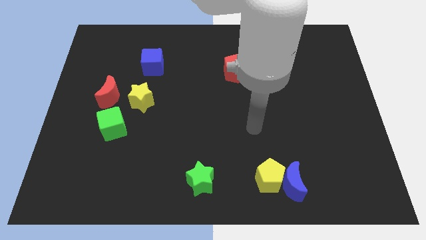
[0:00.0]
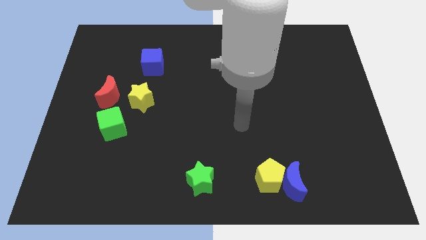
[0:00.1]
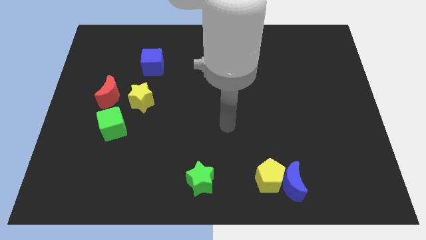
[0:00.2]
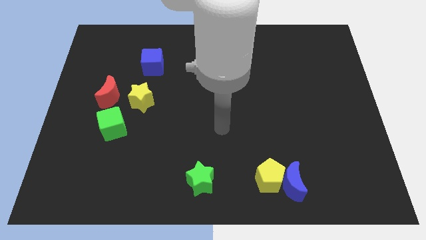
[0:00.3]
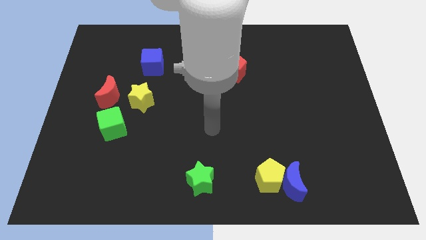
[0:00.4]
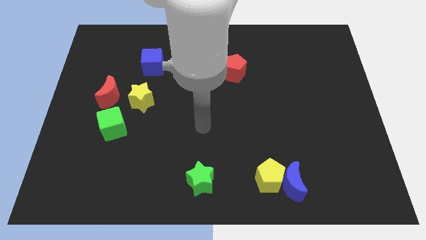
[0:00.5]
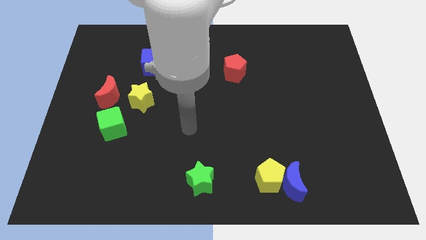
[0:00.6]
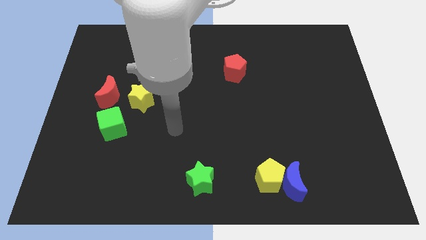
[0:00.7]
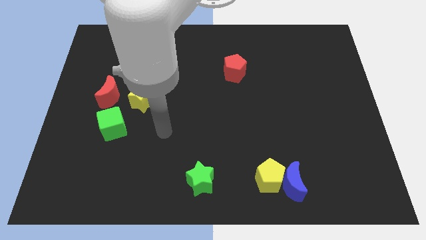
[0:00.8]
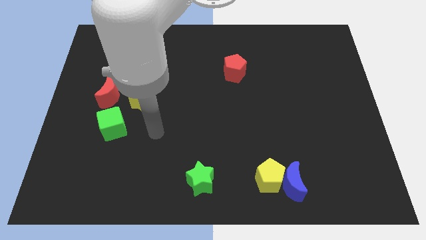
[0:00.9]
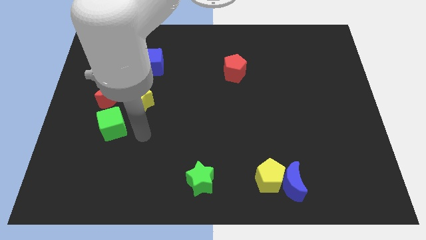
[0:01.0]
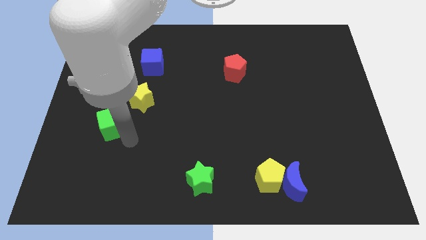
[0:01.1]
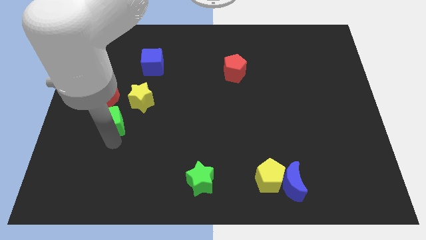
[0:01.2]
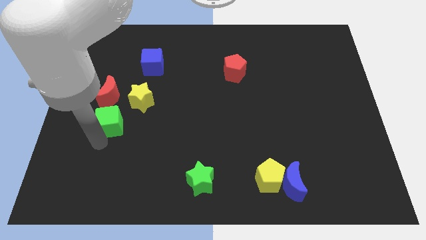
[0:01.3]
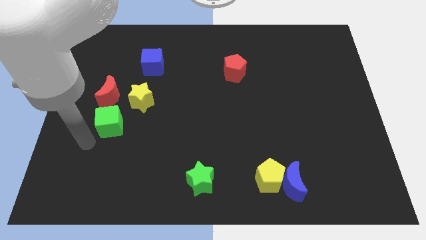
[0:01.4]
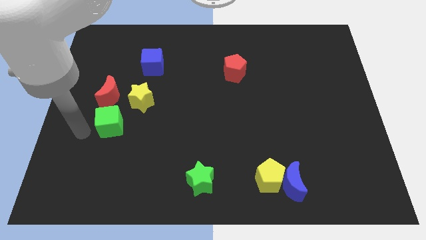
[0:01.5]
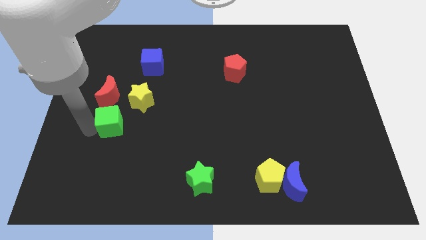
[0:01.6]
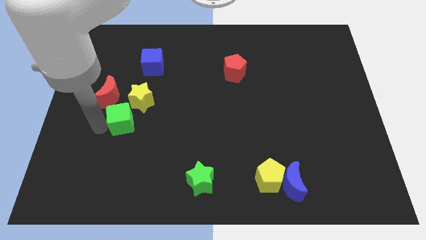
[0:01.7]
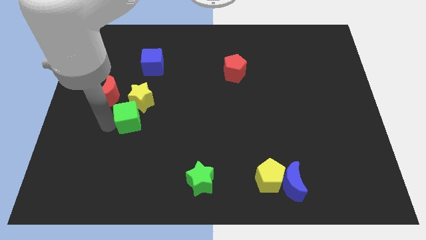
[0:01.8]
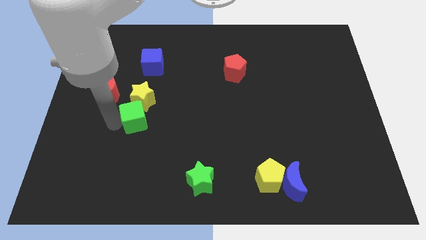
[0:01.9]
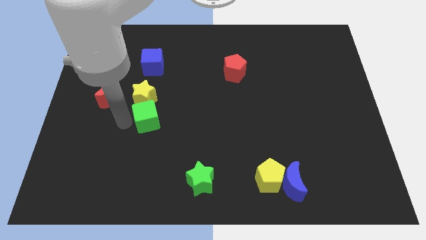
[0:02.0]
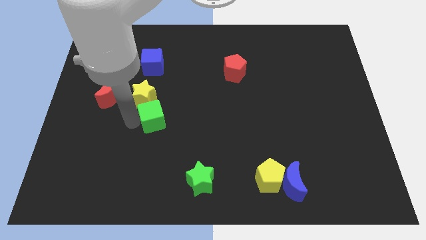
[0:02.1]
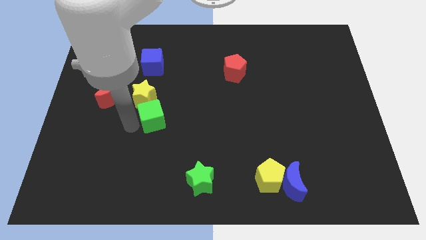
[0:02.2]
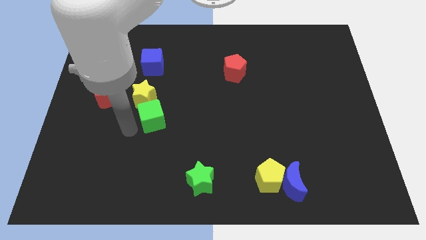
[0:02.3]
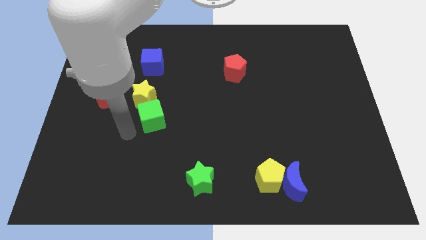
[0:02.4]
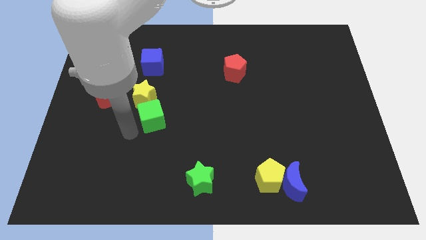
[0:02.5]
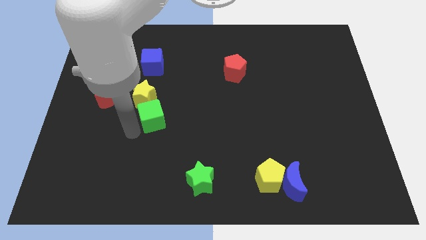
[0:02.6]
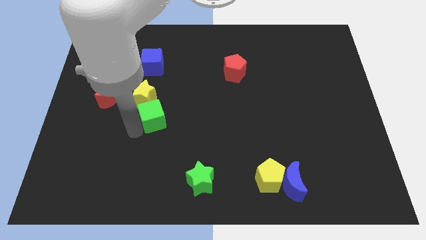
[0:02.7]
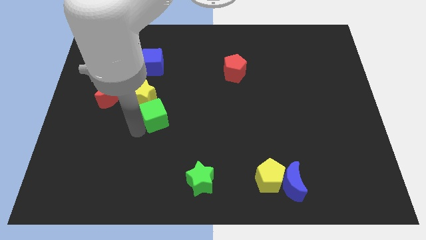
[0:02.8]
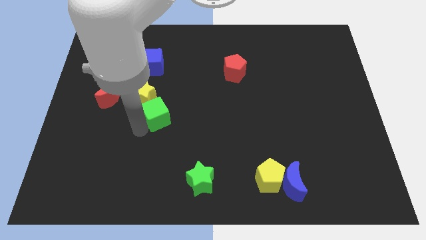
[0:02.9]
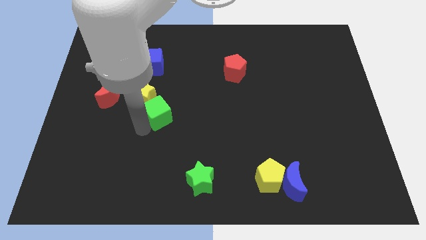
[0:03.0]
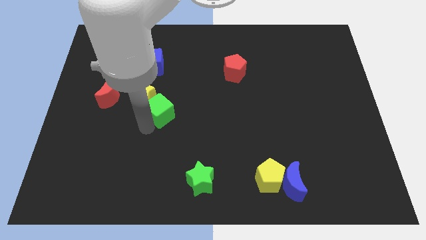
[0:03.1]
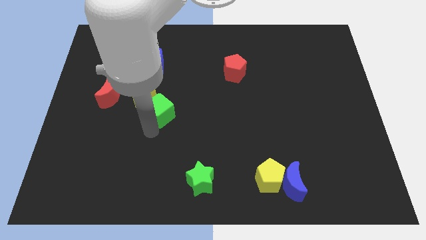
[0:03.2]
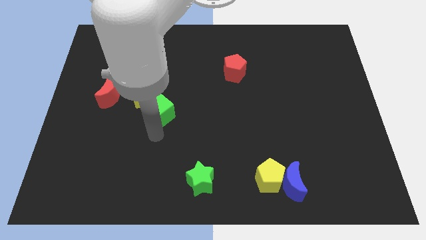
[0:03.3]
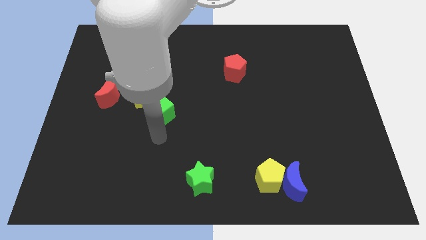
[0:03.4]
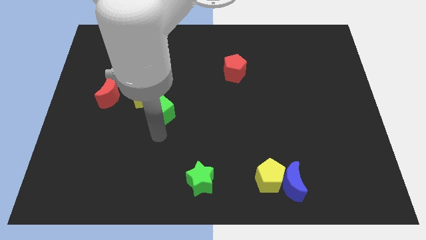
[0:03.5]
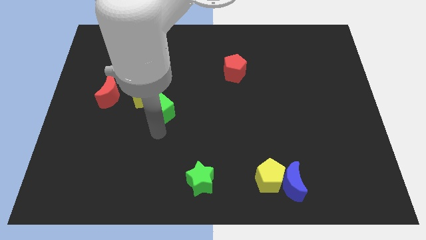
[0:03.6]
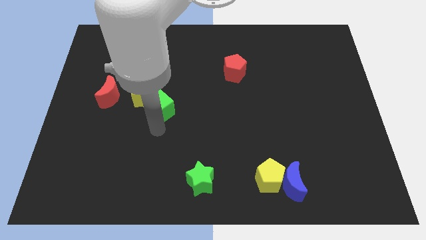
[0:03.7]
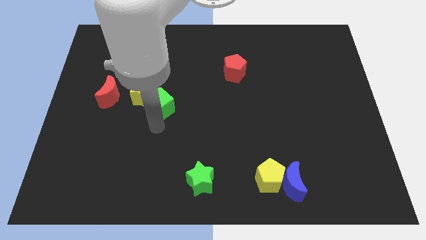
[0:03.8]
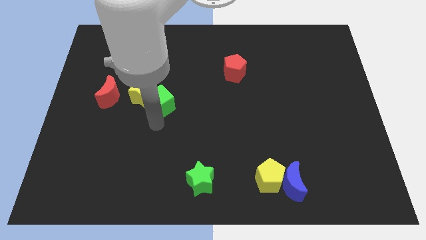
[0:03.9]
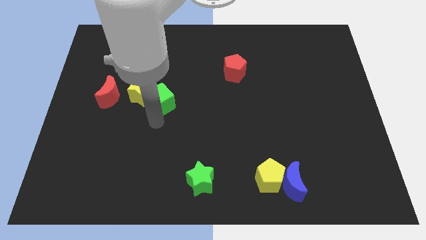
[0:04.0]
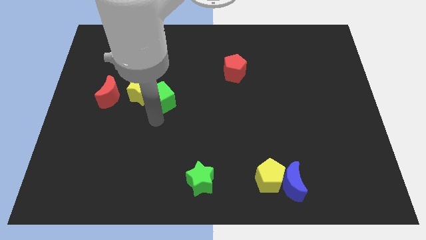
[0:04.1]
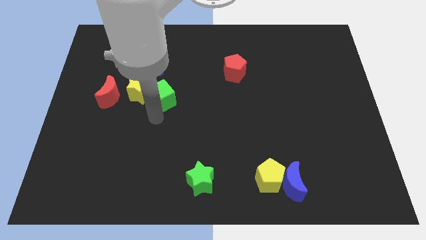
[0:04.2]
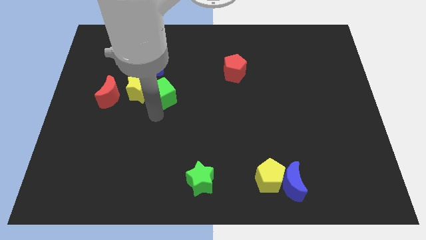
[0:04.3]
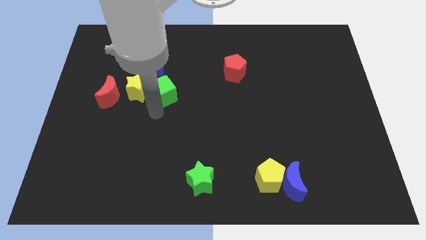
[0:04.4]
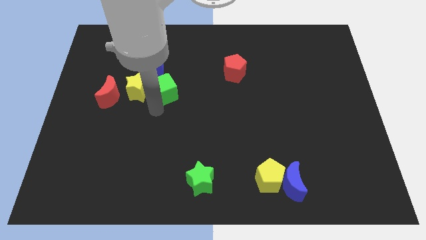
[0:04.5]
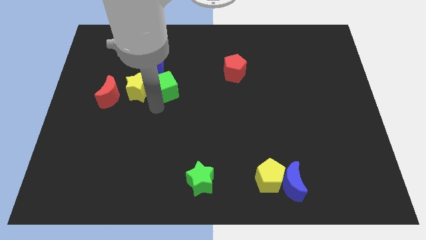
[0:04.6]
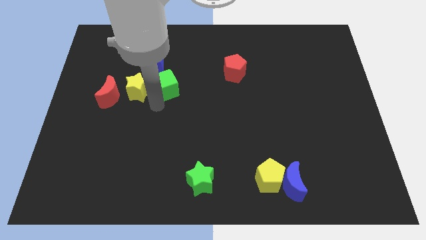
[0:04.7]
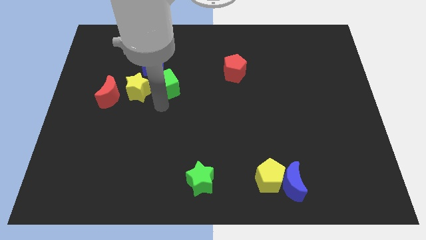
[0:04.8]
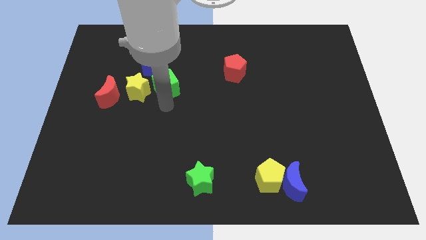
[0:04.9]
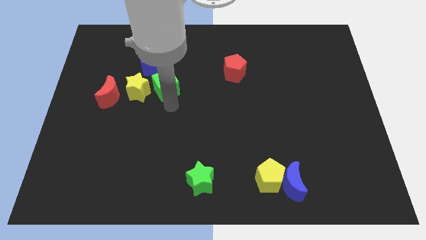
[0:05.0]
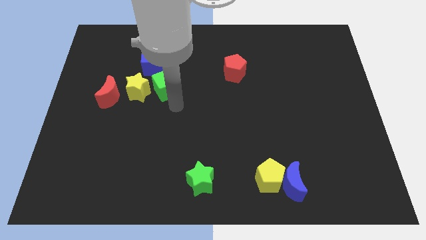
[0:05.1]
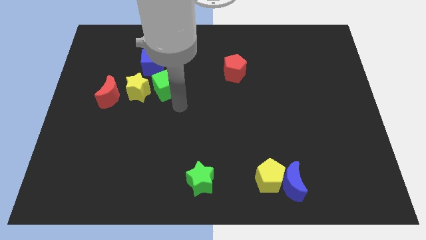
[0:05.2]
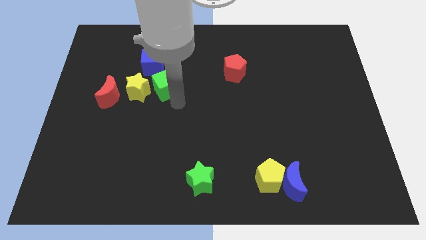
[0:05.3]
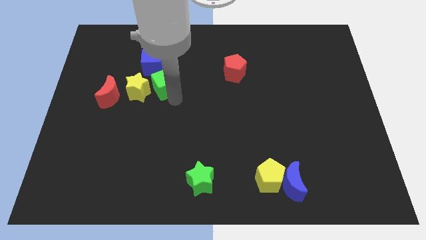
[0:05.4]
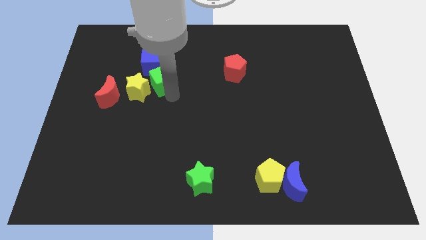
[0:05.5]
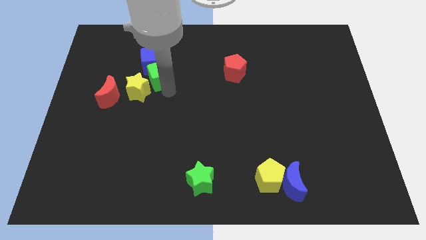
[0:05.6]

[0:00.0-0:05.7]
put the green cube to the blue cube

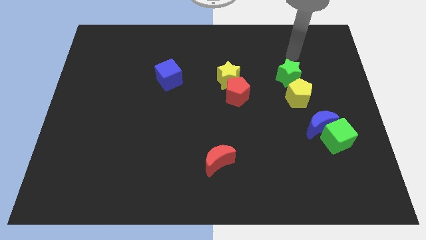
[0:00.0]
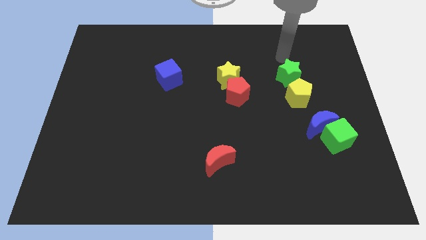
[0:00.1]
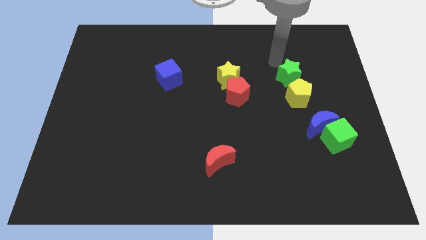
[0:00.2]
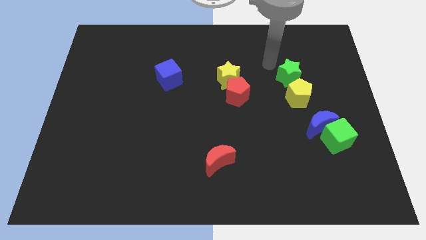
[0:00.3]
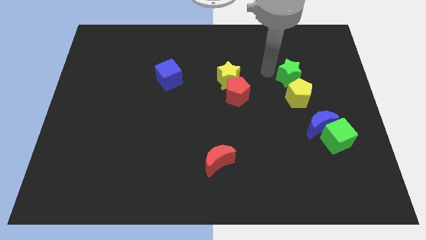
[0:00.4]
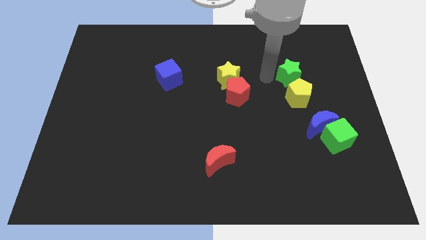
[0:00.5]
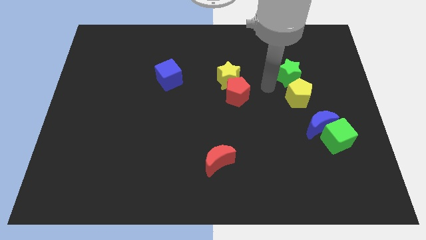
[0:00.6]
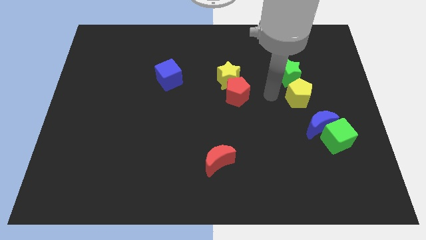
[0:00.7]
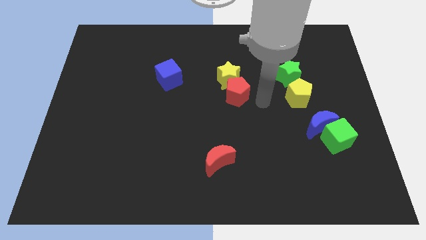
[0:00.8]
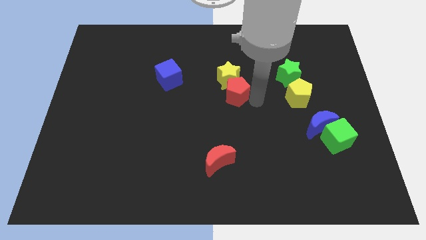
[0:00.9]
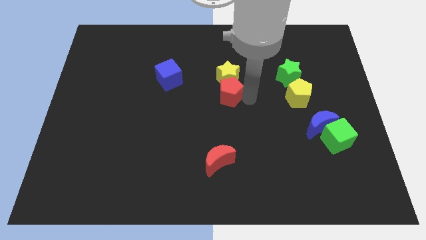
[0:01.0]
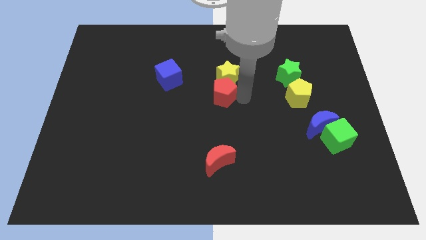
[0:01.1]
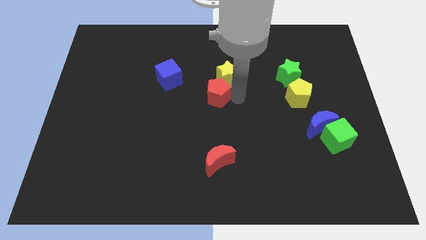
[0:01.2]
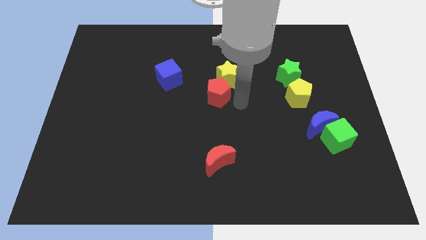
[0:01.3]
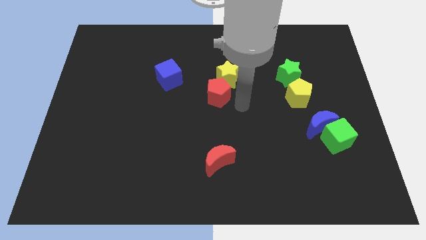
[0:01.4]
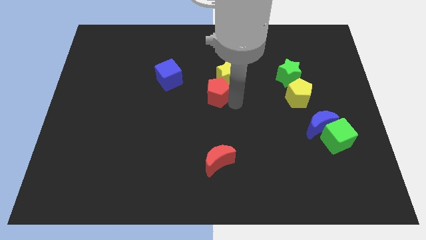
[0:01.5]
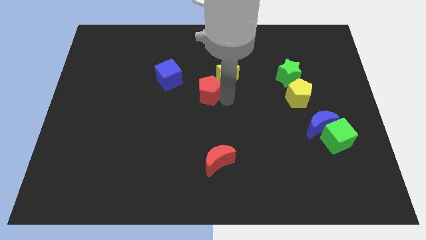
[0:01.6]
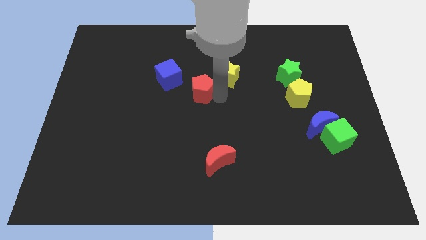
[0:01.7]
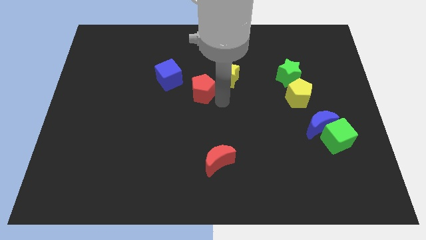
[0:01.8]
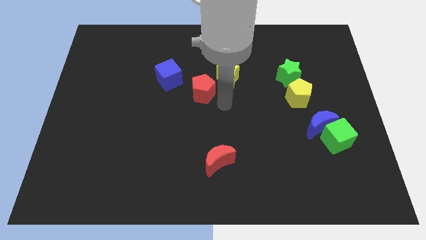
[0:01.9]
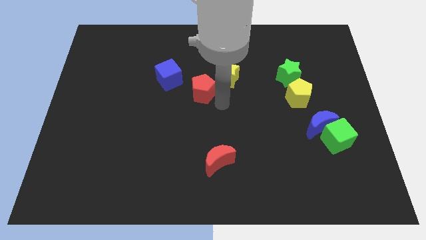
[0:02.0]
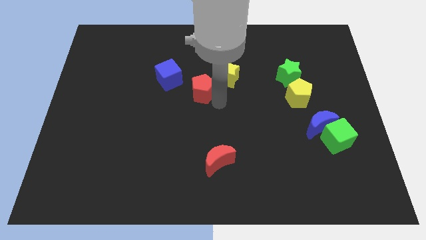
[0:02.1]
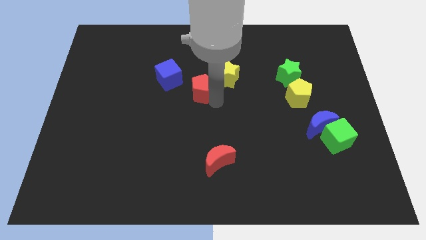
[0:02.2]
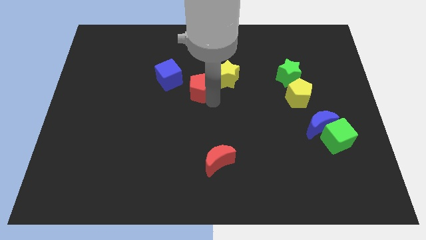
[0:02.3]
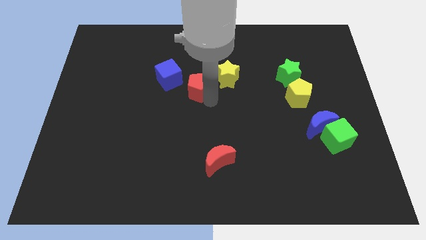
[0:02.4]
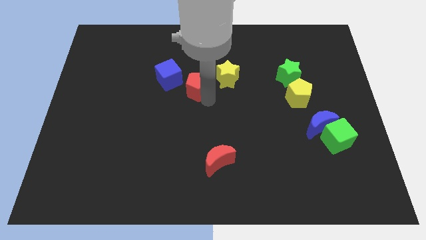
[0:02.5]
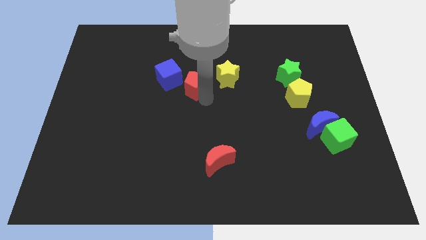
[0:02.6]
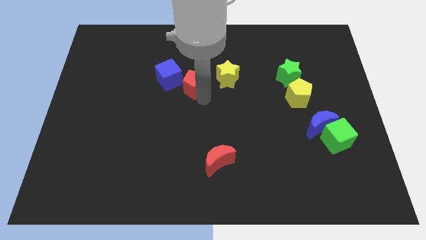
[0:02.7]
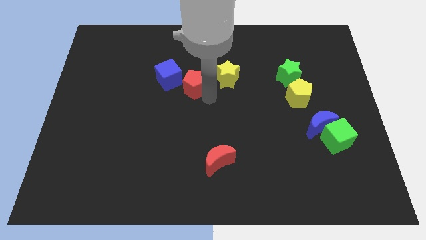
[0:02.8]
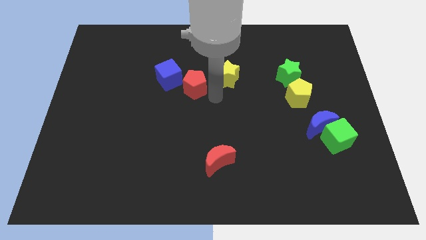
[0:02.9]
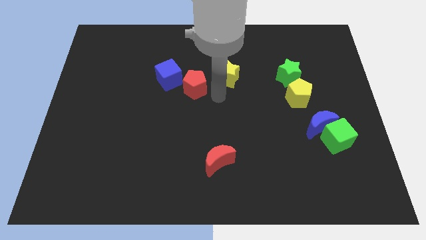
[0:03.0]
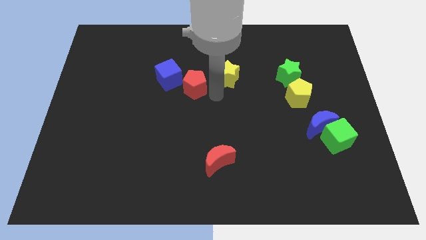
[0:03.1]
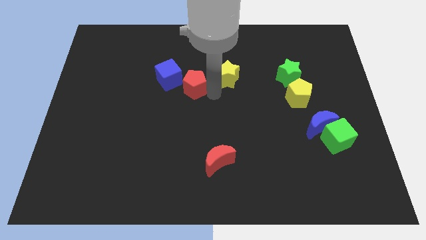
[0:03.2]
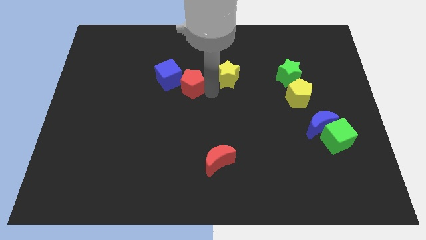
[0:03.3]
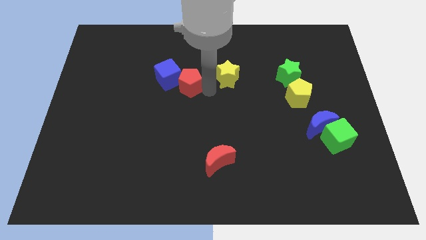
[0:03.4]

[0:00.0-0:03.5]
put the red pentagon close to the blue cube
